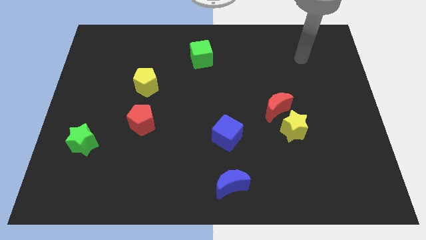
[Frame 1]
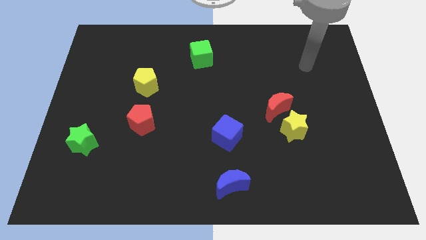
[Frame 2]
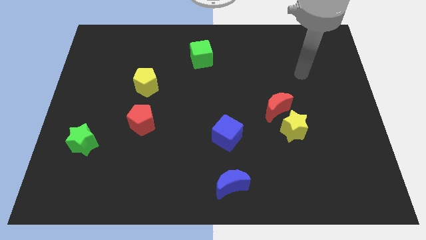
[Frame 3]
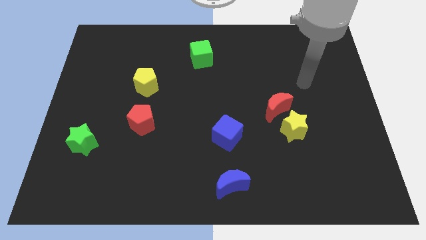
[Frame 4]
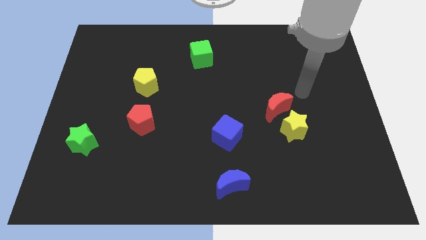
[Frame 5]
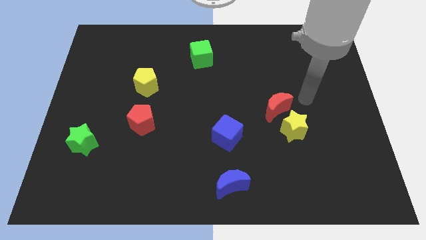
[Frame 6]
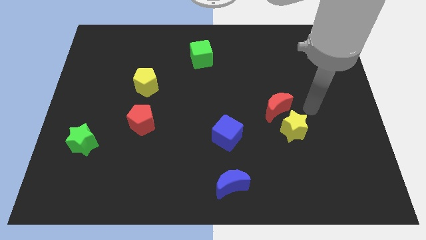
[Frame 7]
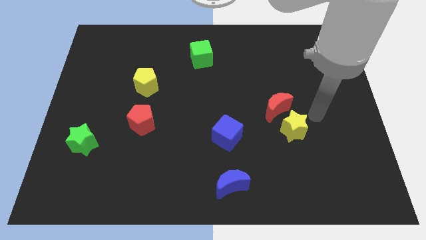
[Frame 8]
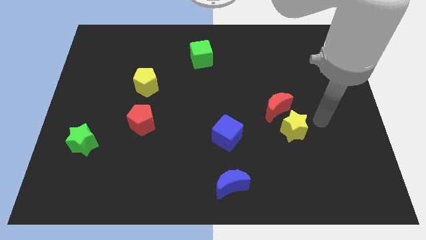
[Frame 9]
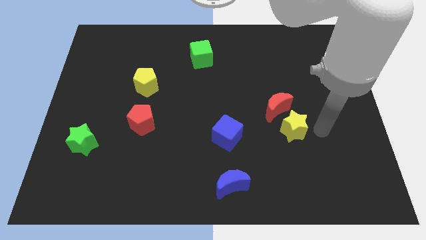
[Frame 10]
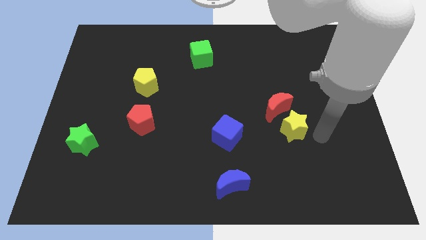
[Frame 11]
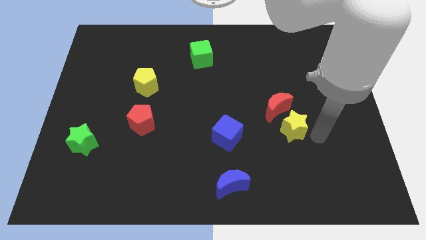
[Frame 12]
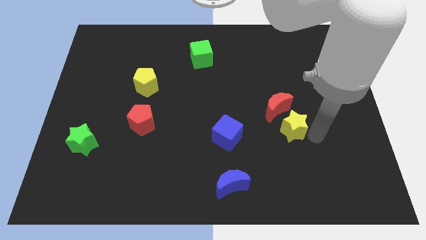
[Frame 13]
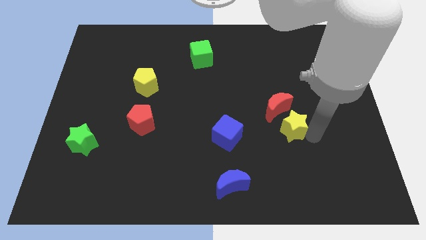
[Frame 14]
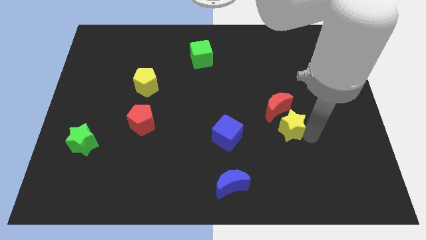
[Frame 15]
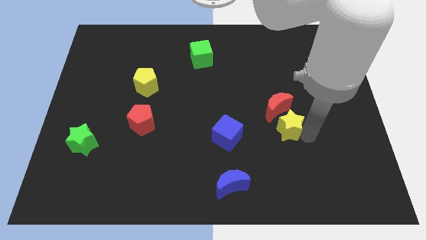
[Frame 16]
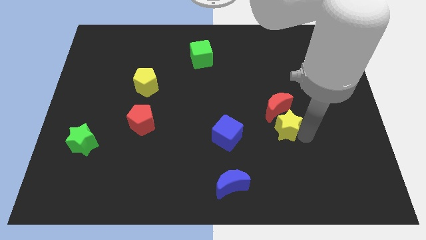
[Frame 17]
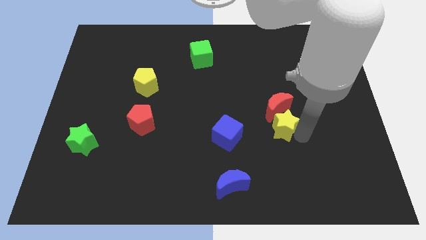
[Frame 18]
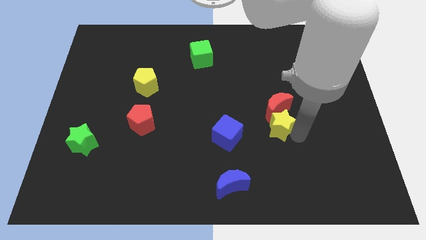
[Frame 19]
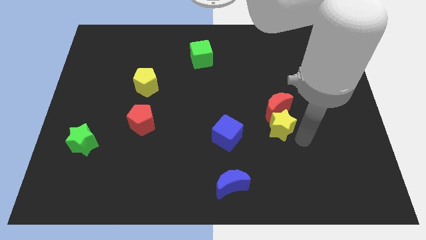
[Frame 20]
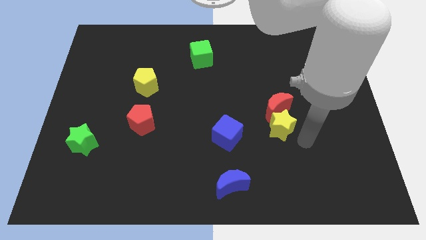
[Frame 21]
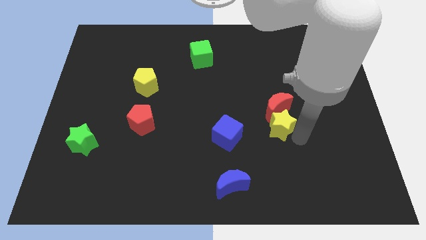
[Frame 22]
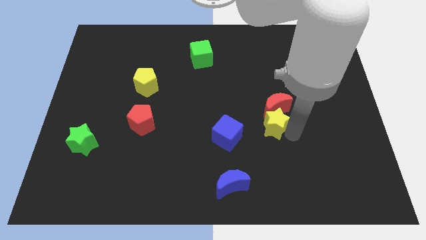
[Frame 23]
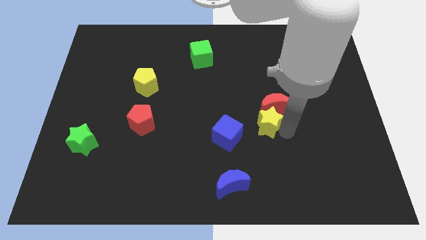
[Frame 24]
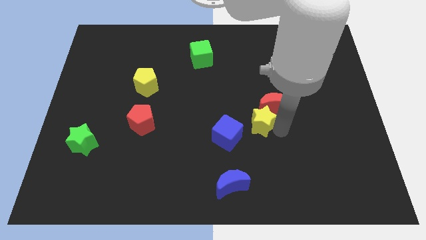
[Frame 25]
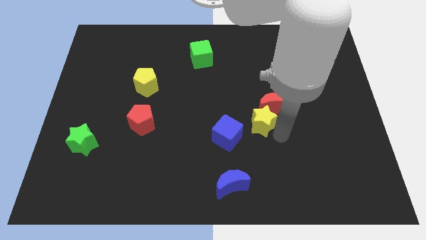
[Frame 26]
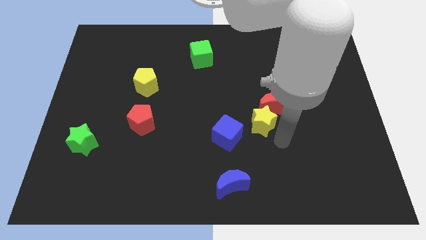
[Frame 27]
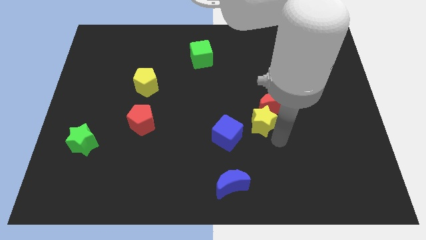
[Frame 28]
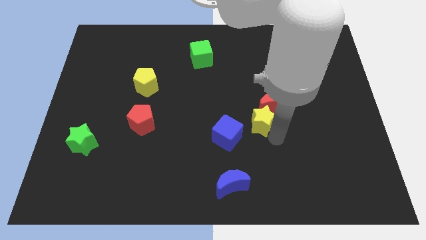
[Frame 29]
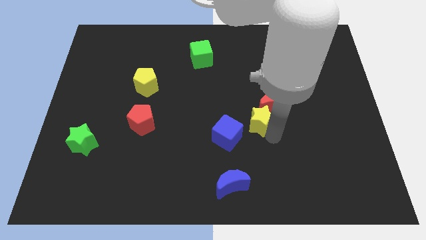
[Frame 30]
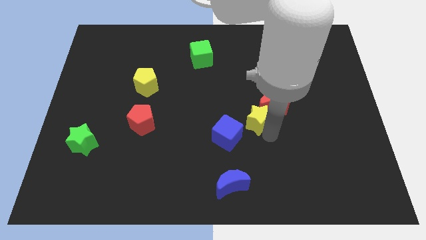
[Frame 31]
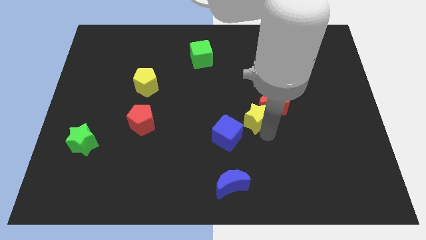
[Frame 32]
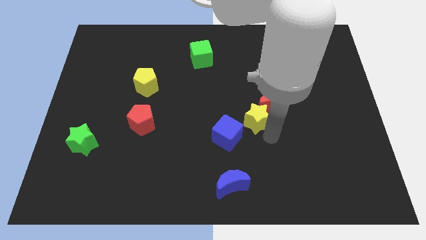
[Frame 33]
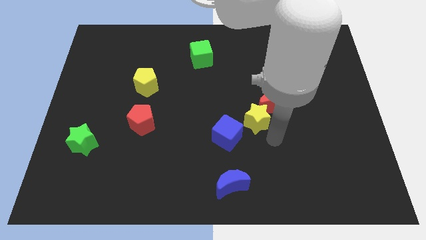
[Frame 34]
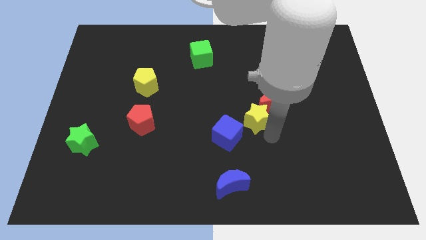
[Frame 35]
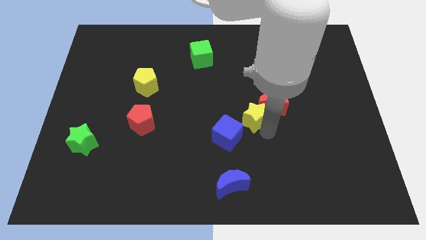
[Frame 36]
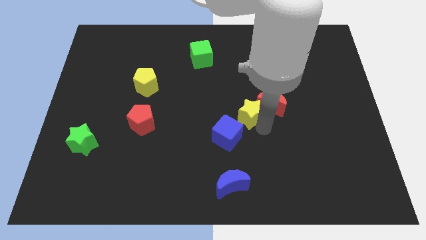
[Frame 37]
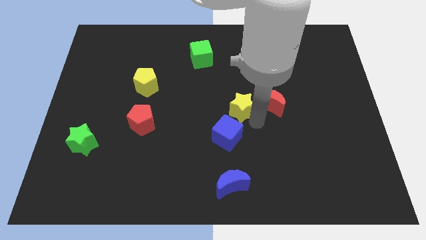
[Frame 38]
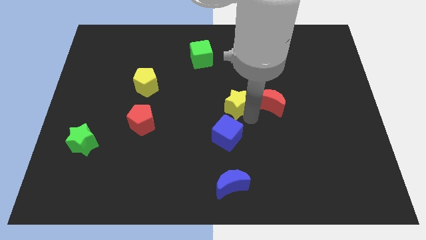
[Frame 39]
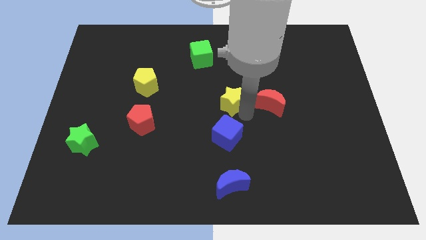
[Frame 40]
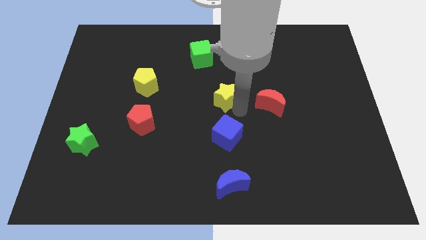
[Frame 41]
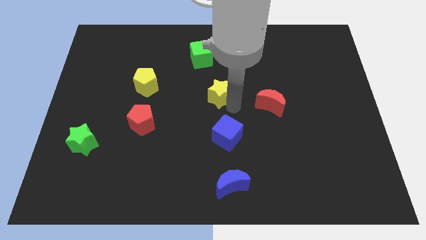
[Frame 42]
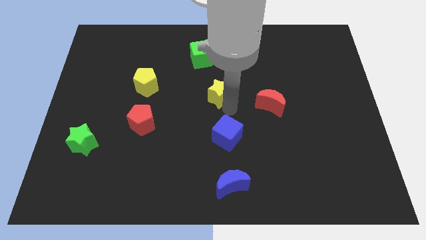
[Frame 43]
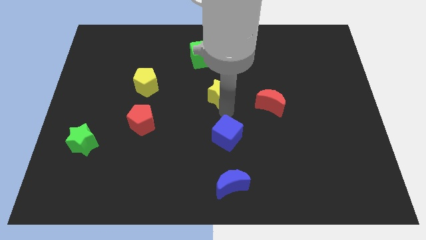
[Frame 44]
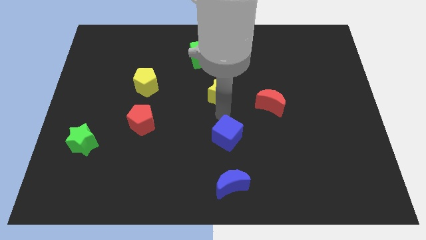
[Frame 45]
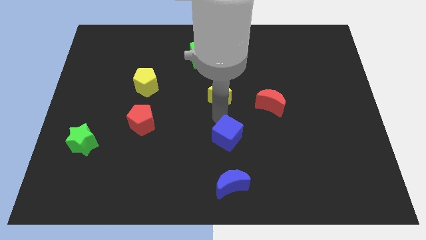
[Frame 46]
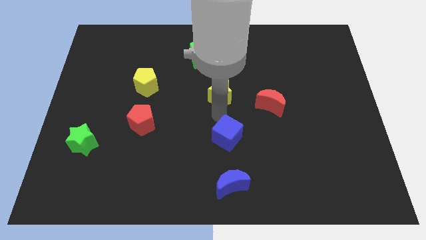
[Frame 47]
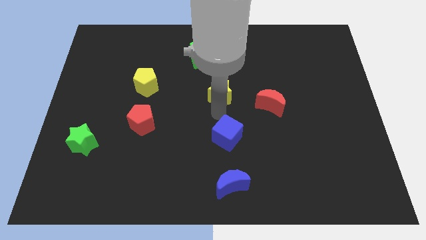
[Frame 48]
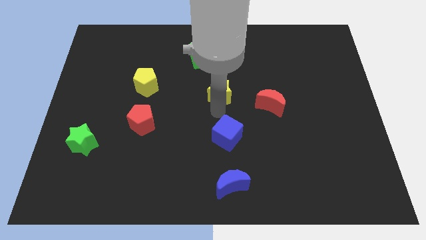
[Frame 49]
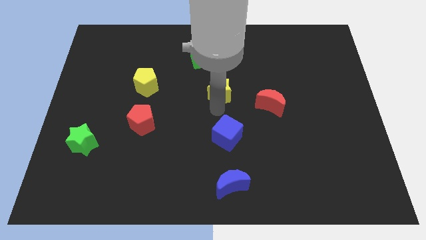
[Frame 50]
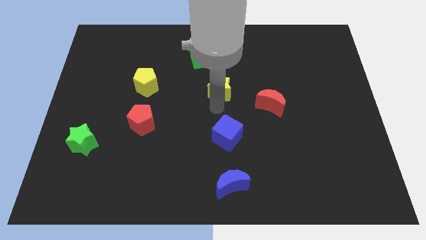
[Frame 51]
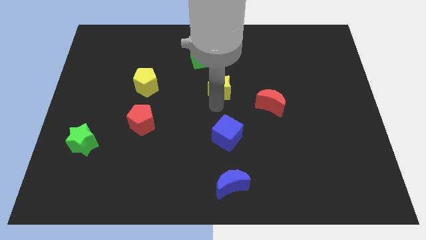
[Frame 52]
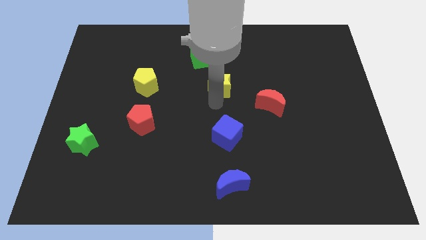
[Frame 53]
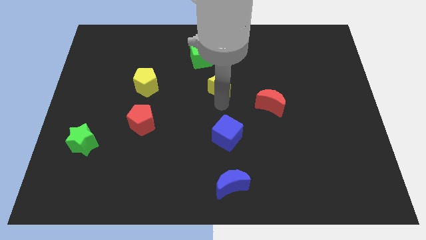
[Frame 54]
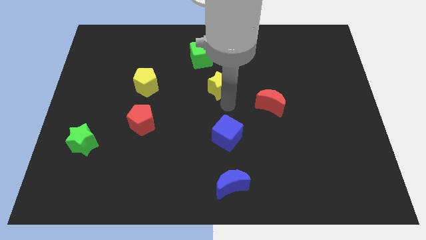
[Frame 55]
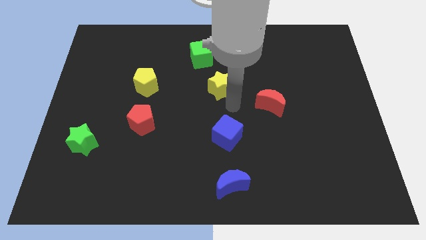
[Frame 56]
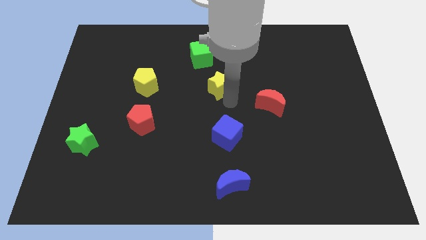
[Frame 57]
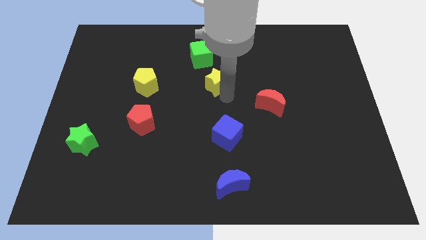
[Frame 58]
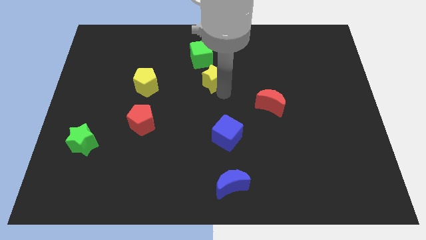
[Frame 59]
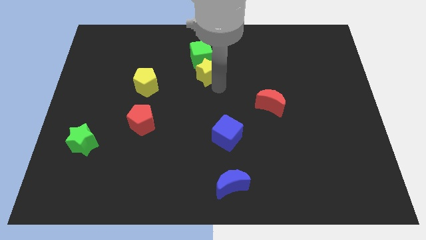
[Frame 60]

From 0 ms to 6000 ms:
move the yellow star next to the green cube

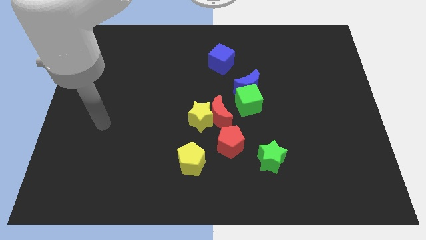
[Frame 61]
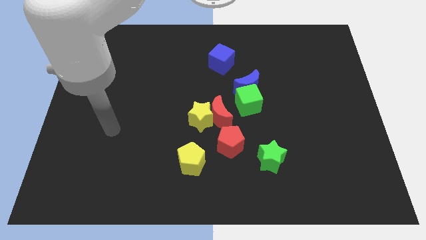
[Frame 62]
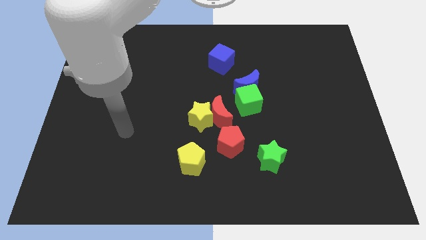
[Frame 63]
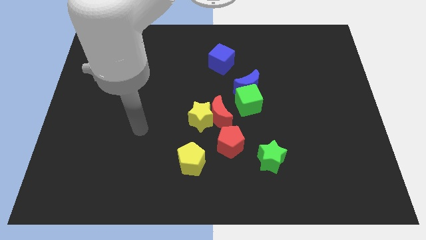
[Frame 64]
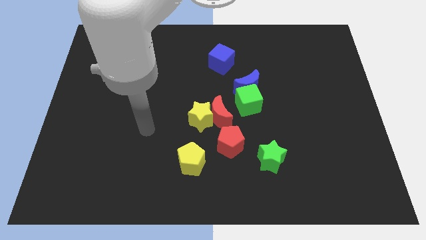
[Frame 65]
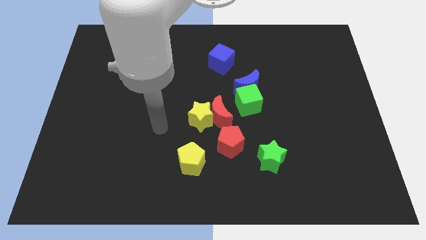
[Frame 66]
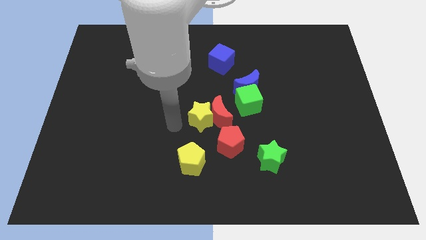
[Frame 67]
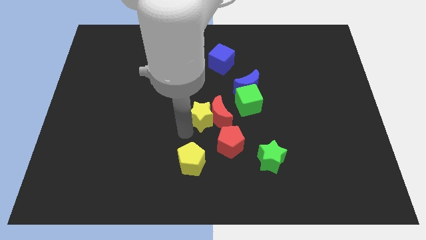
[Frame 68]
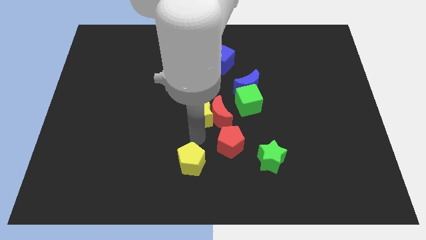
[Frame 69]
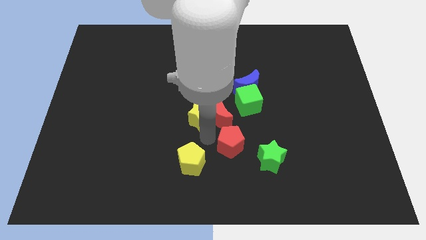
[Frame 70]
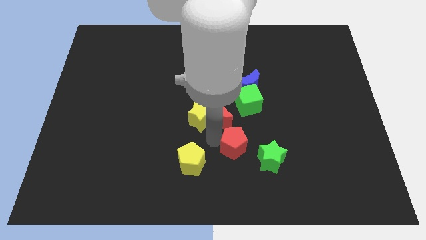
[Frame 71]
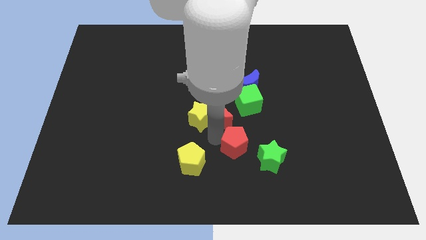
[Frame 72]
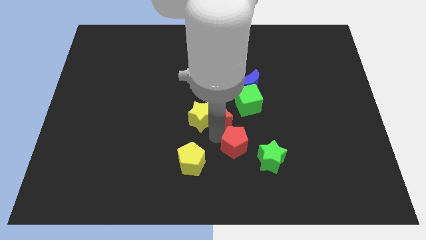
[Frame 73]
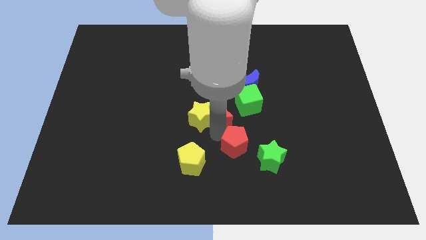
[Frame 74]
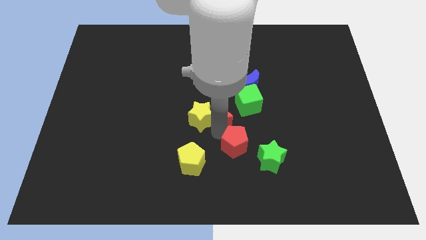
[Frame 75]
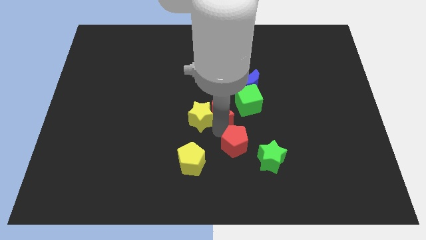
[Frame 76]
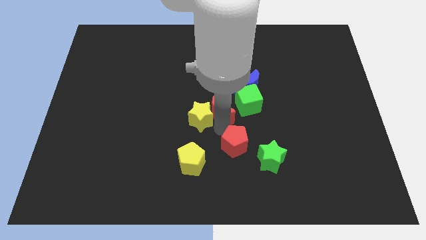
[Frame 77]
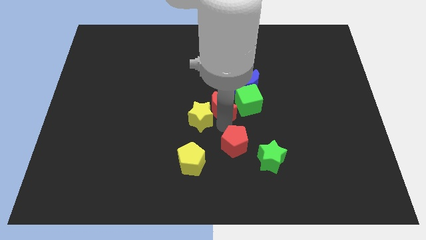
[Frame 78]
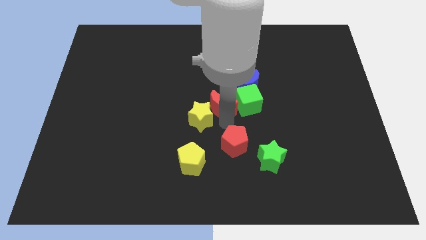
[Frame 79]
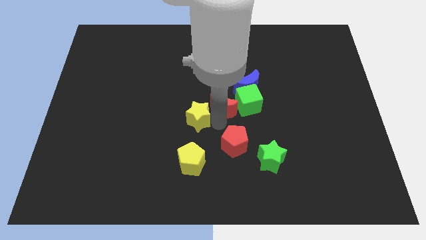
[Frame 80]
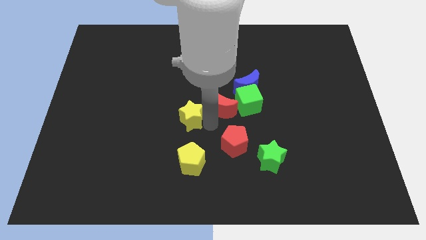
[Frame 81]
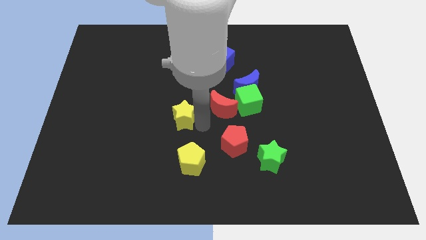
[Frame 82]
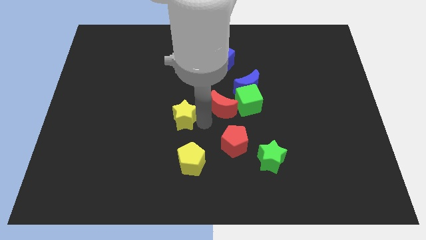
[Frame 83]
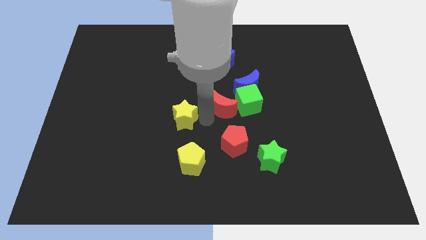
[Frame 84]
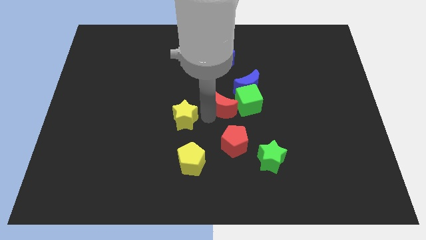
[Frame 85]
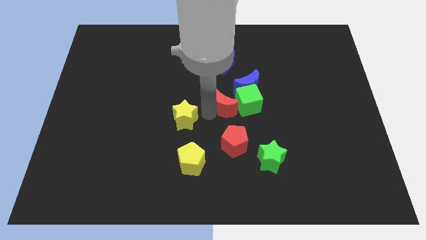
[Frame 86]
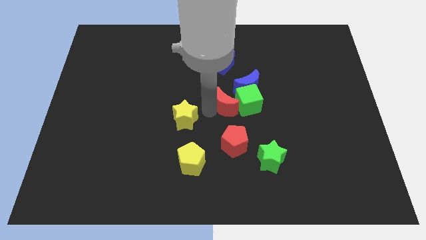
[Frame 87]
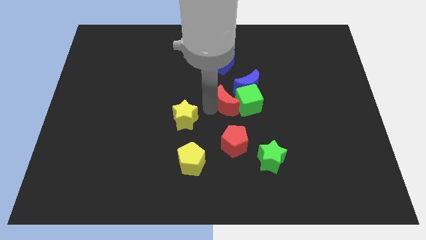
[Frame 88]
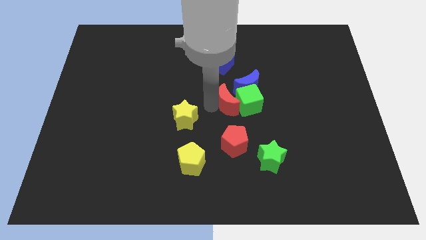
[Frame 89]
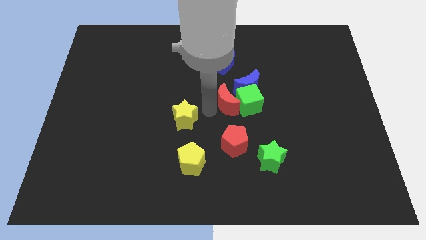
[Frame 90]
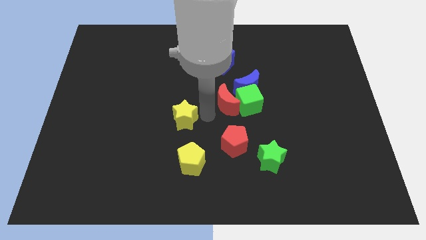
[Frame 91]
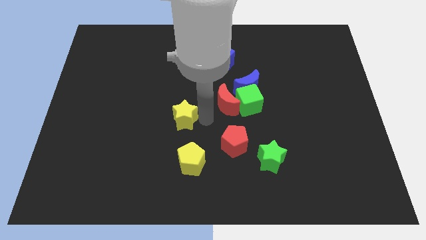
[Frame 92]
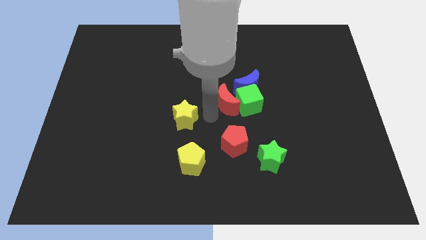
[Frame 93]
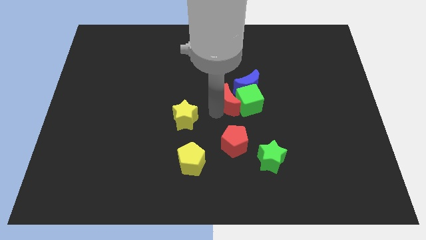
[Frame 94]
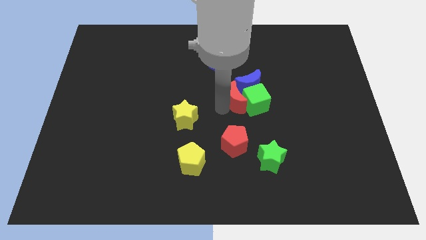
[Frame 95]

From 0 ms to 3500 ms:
put the red moon close to the blue moon
